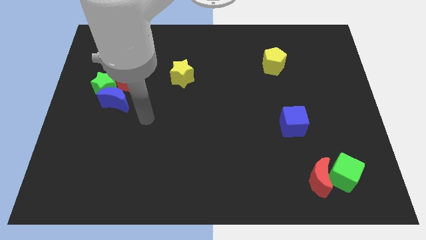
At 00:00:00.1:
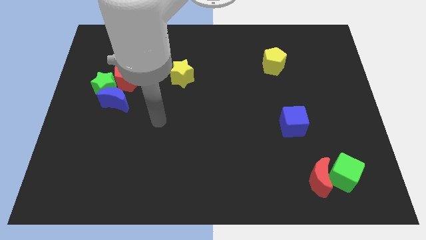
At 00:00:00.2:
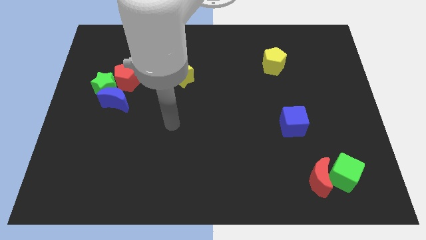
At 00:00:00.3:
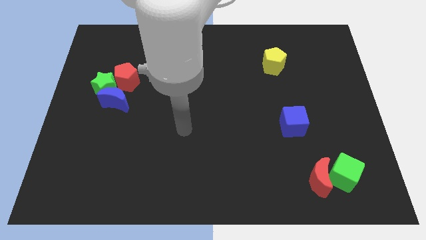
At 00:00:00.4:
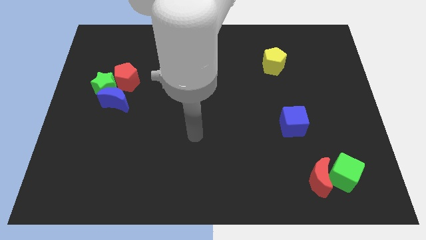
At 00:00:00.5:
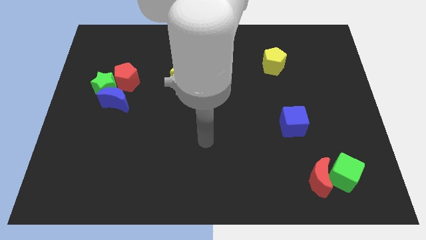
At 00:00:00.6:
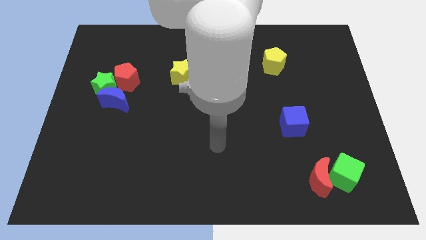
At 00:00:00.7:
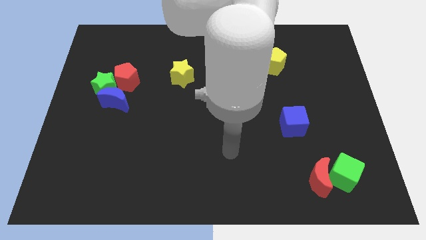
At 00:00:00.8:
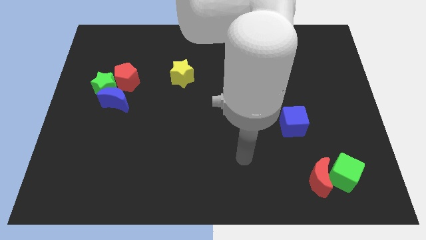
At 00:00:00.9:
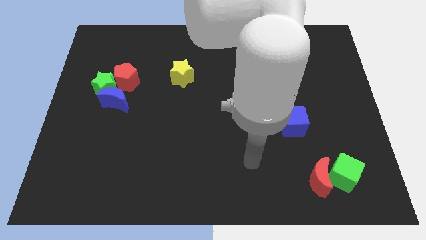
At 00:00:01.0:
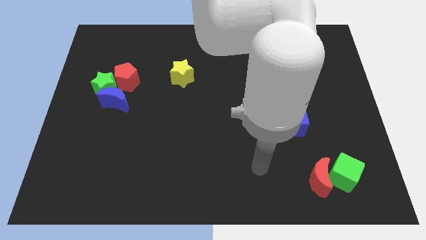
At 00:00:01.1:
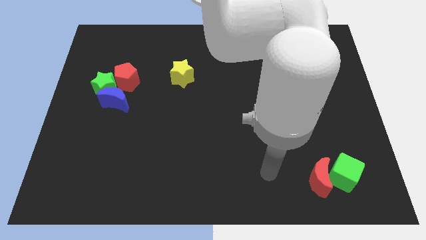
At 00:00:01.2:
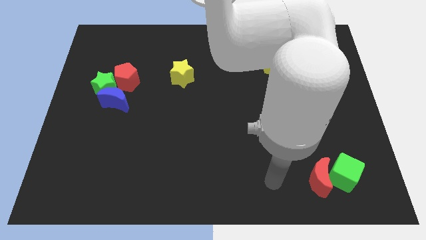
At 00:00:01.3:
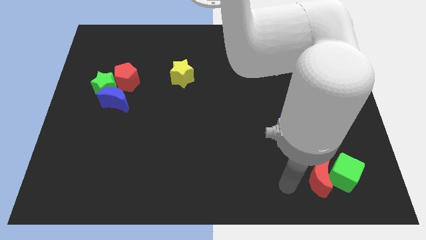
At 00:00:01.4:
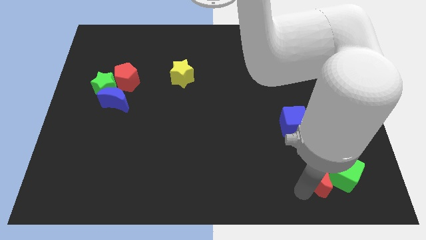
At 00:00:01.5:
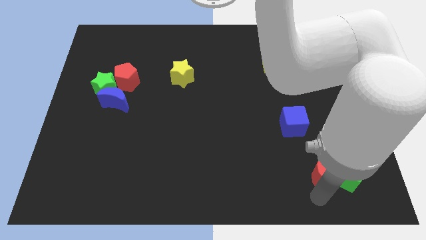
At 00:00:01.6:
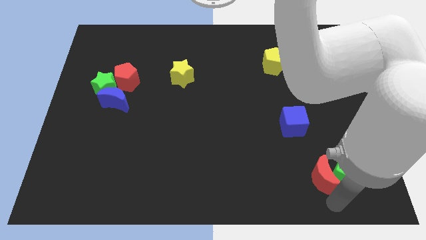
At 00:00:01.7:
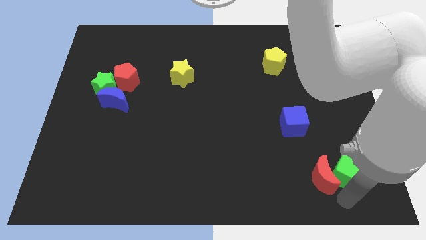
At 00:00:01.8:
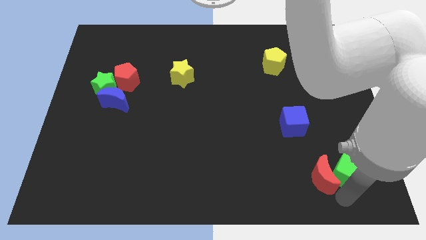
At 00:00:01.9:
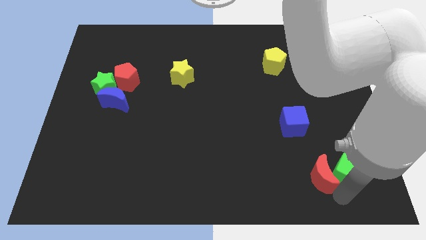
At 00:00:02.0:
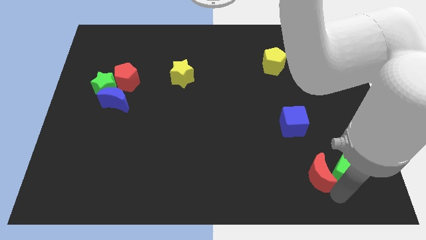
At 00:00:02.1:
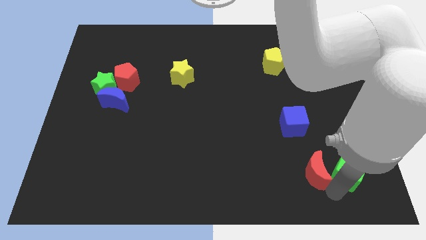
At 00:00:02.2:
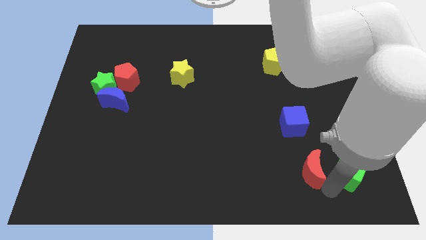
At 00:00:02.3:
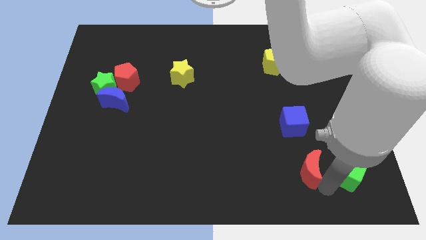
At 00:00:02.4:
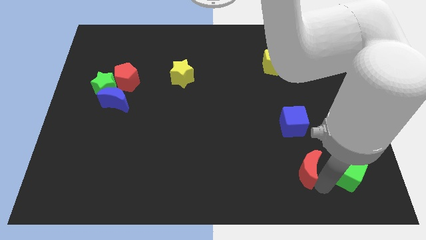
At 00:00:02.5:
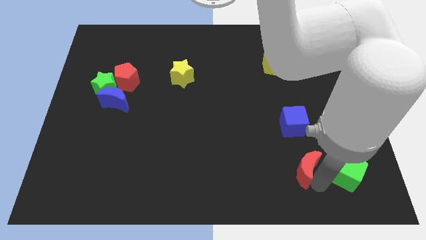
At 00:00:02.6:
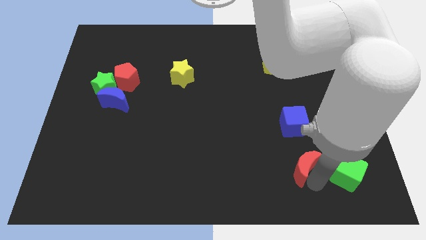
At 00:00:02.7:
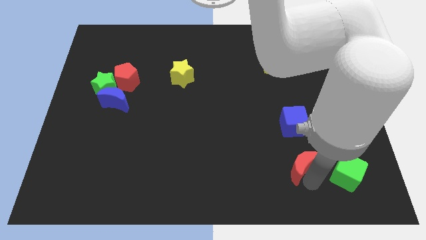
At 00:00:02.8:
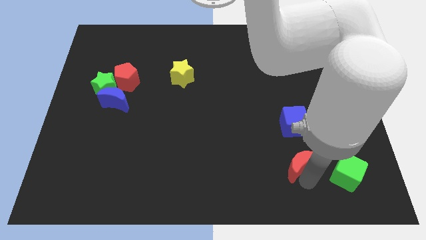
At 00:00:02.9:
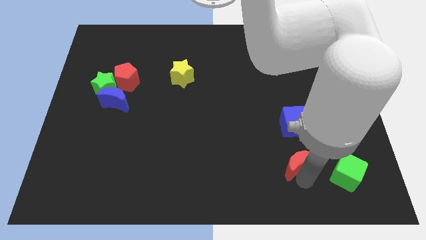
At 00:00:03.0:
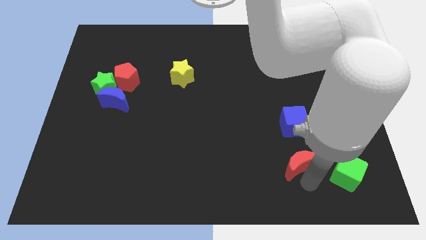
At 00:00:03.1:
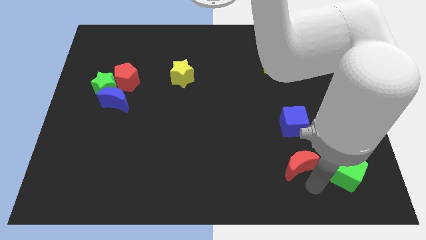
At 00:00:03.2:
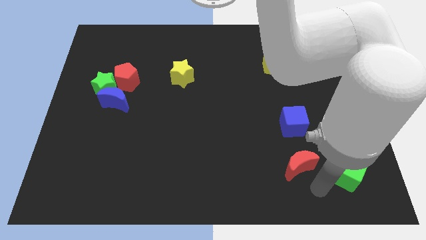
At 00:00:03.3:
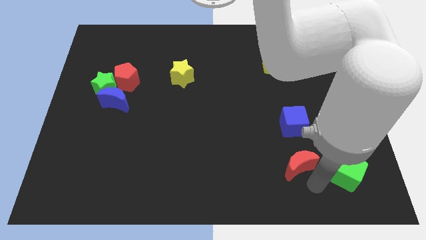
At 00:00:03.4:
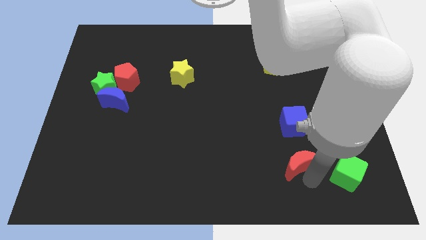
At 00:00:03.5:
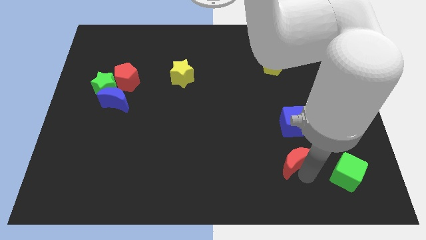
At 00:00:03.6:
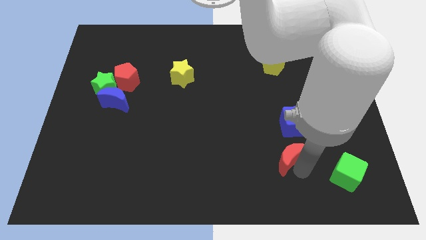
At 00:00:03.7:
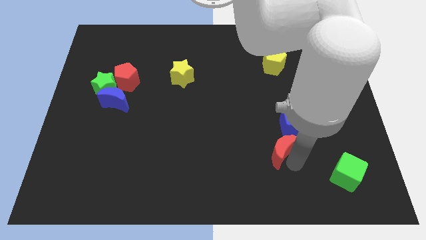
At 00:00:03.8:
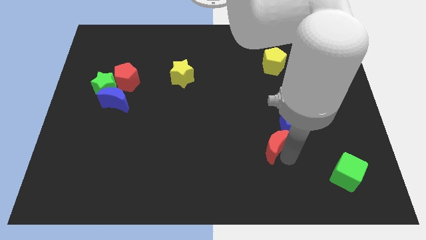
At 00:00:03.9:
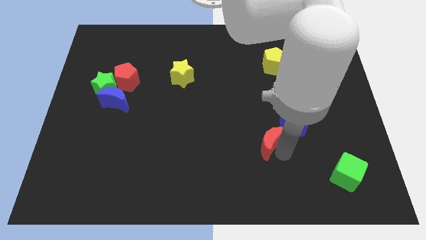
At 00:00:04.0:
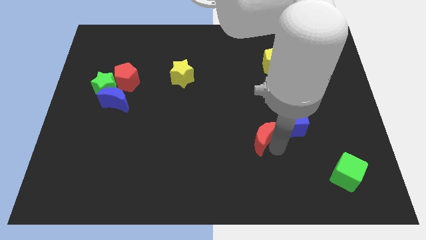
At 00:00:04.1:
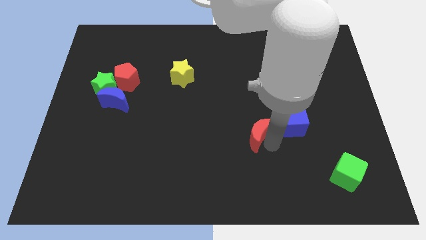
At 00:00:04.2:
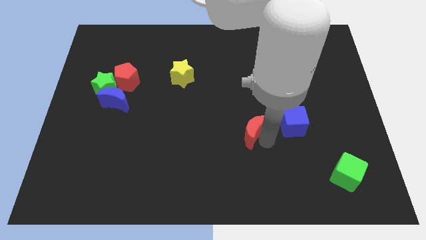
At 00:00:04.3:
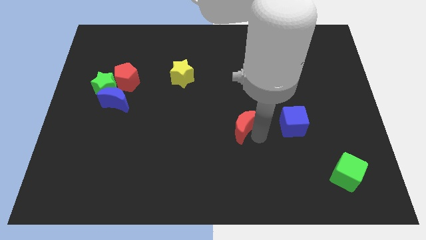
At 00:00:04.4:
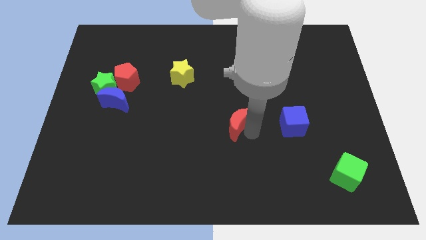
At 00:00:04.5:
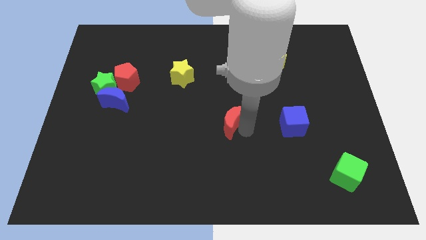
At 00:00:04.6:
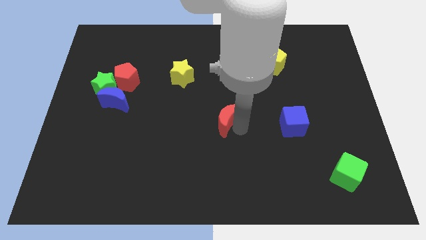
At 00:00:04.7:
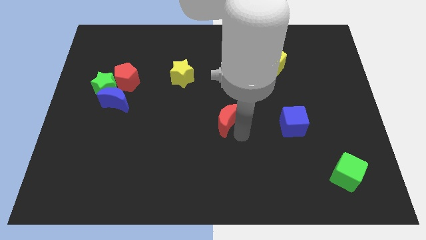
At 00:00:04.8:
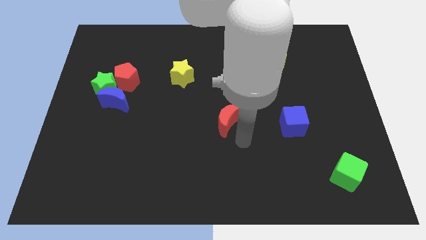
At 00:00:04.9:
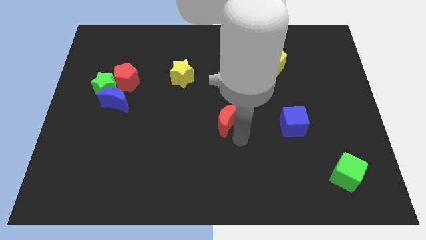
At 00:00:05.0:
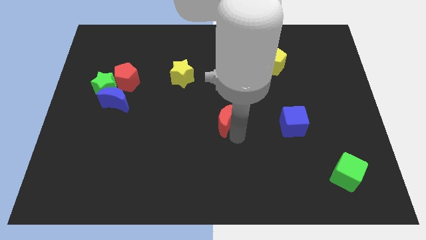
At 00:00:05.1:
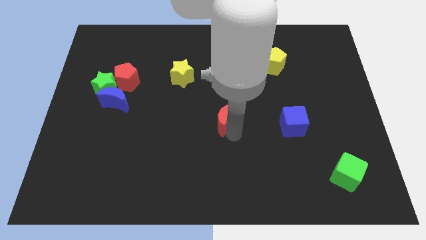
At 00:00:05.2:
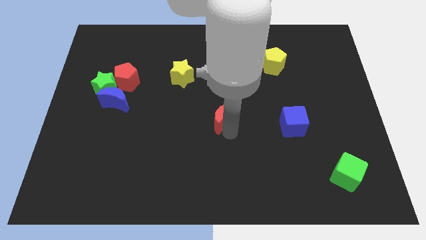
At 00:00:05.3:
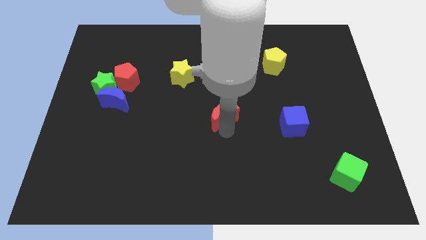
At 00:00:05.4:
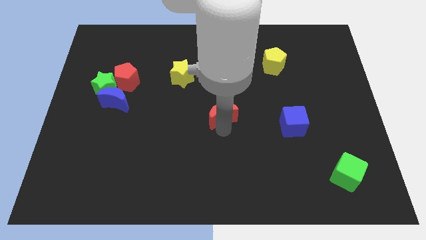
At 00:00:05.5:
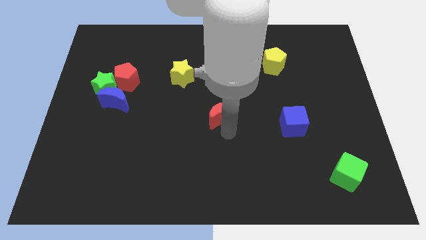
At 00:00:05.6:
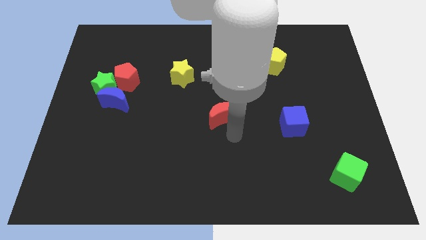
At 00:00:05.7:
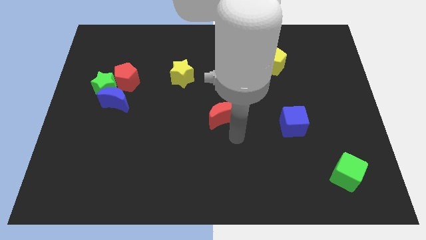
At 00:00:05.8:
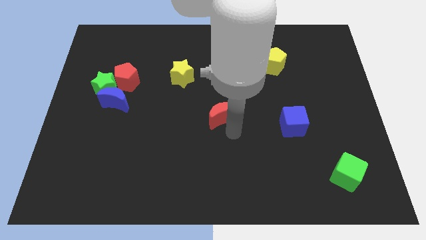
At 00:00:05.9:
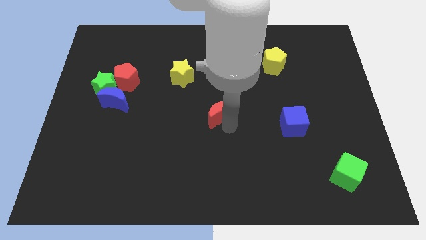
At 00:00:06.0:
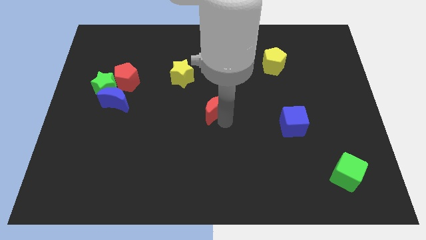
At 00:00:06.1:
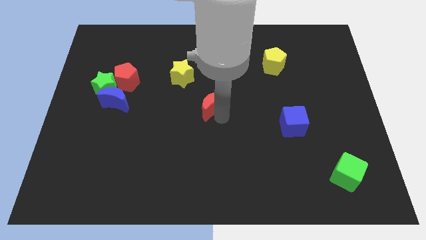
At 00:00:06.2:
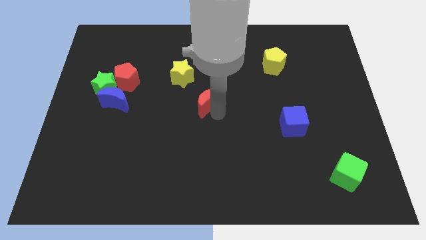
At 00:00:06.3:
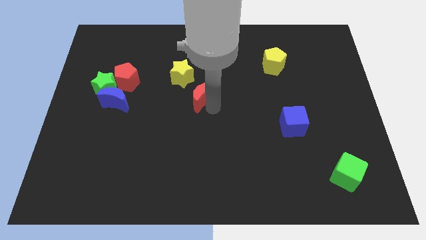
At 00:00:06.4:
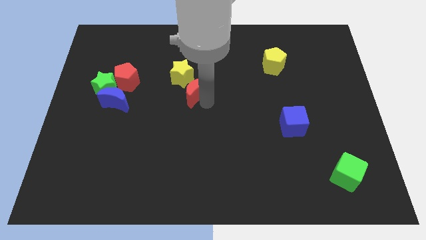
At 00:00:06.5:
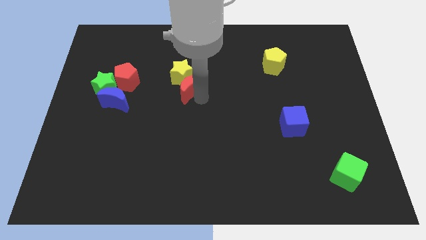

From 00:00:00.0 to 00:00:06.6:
slide the red moon close to the yellow star
